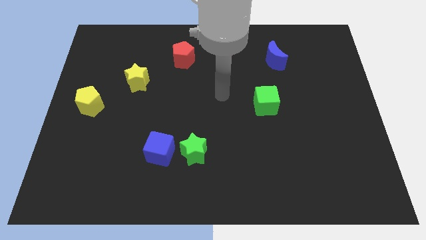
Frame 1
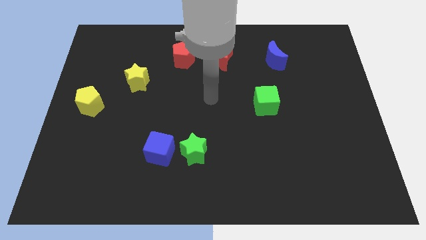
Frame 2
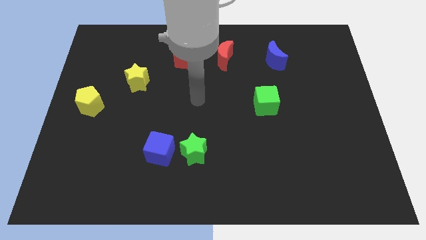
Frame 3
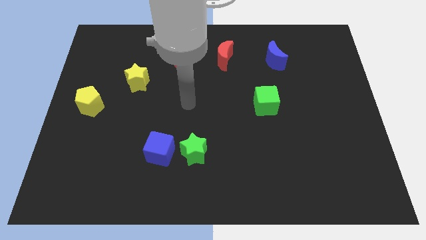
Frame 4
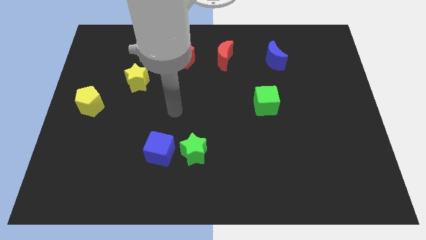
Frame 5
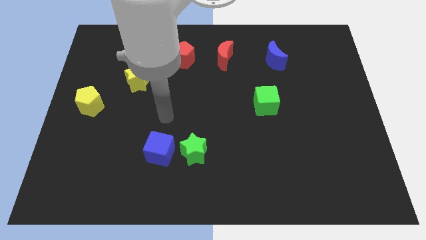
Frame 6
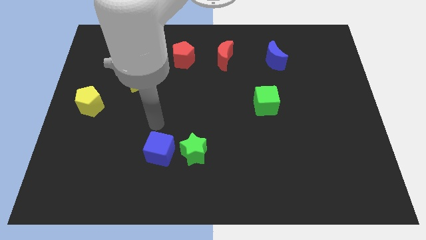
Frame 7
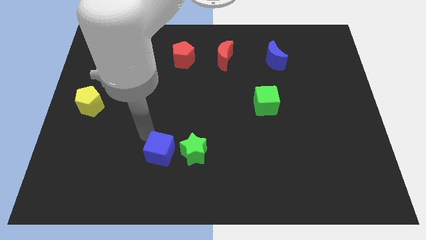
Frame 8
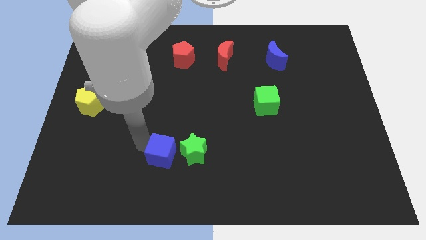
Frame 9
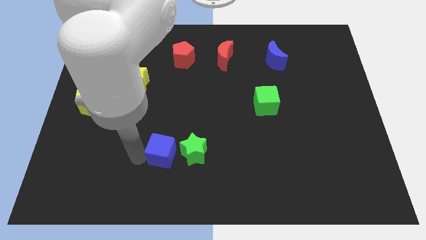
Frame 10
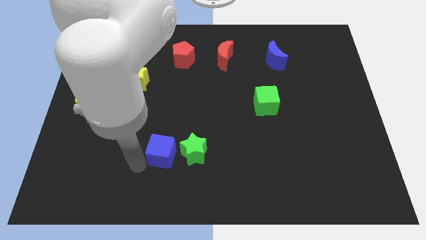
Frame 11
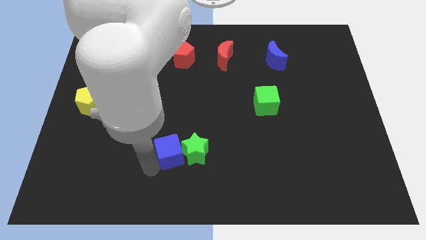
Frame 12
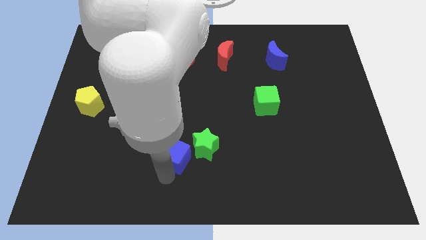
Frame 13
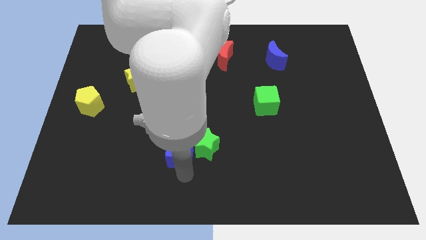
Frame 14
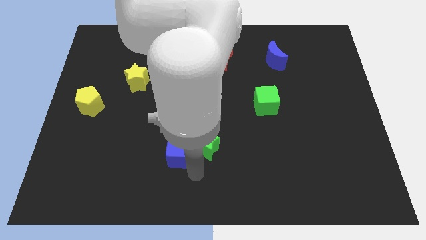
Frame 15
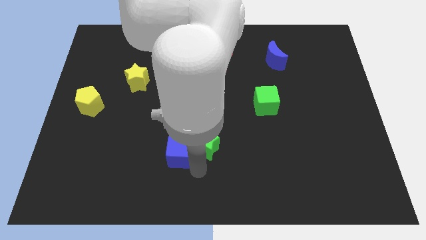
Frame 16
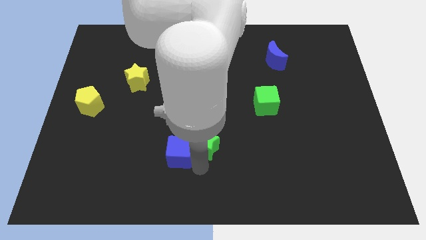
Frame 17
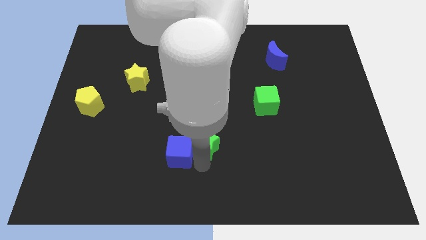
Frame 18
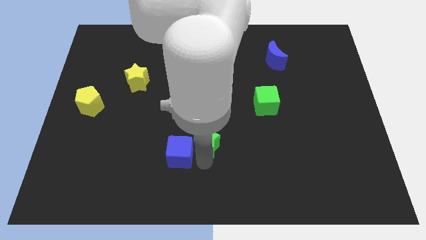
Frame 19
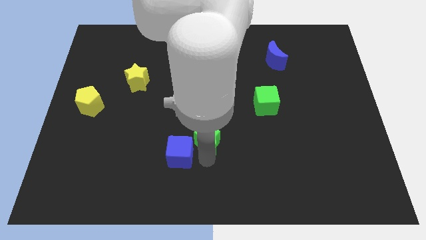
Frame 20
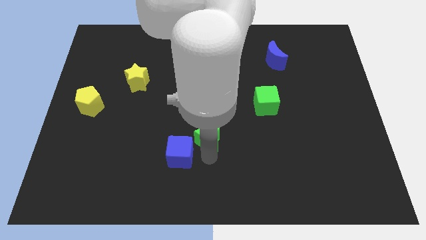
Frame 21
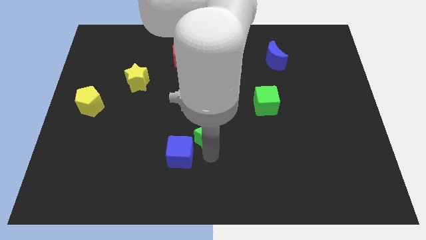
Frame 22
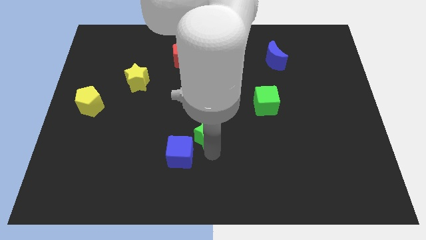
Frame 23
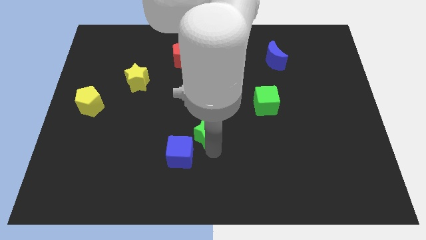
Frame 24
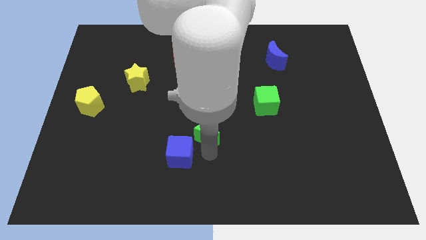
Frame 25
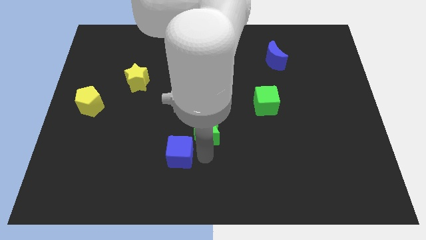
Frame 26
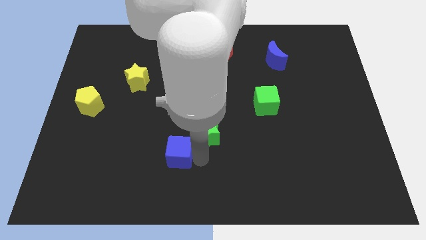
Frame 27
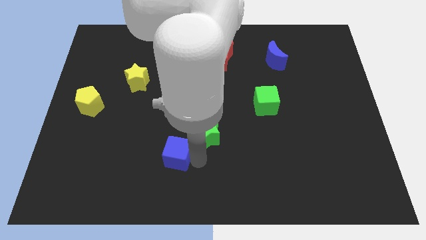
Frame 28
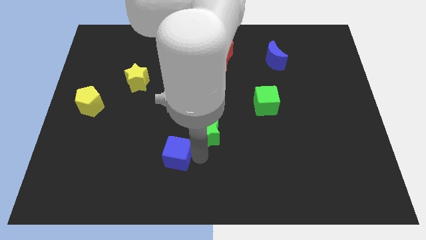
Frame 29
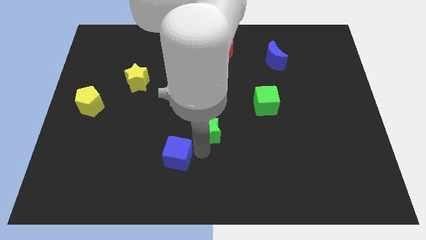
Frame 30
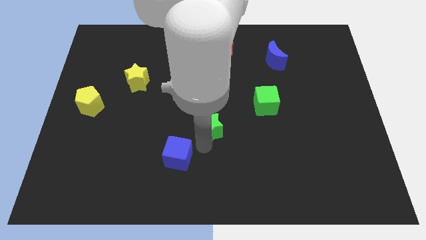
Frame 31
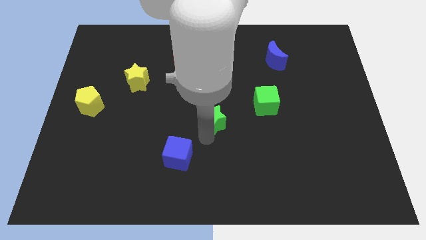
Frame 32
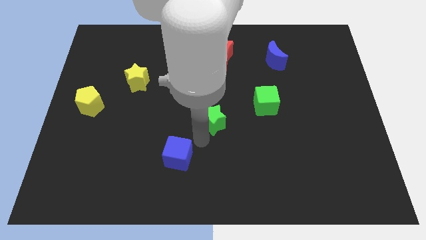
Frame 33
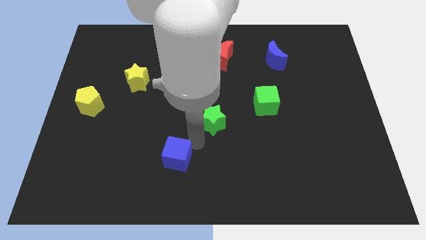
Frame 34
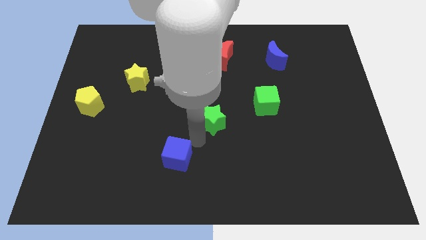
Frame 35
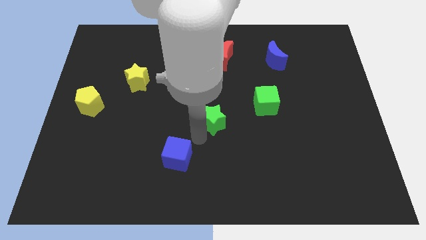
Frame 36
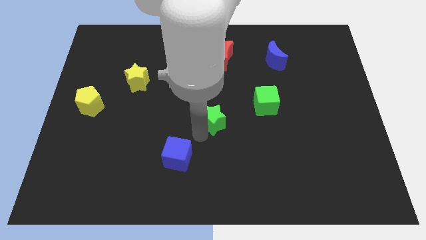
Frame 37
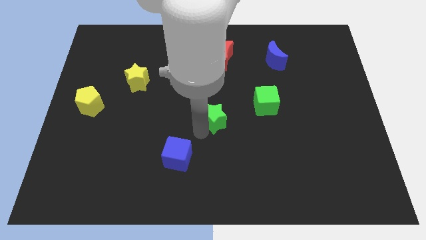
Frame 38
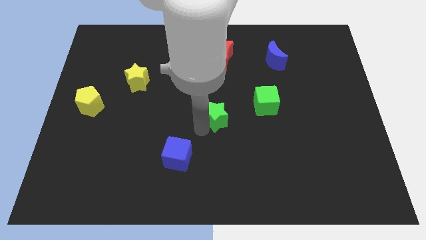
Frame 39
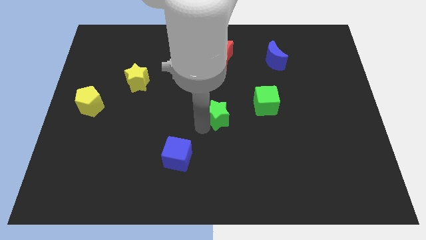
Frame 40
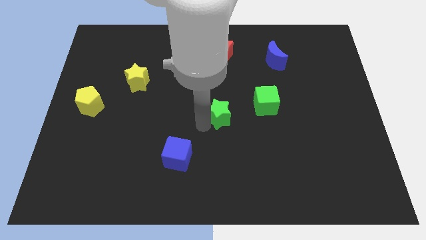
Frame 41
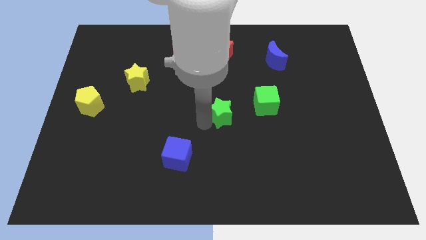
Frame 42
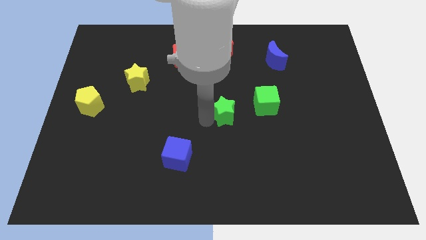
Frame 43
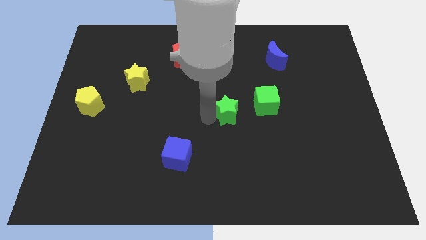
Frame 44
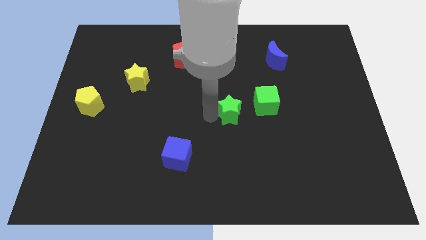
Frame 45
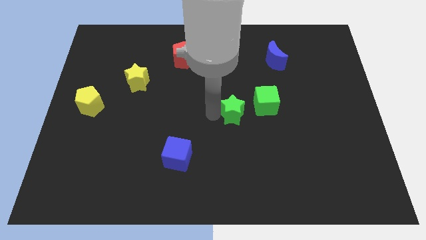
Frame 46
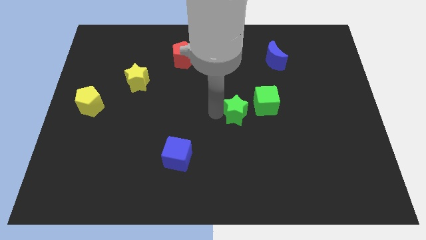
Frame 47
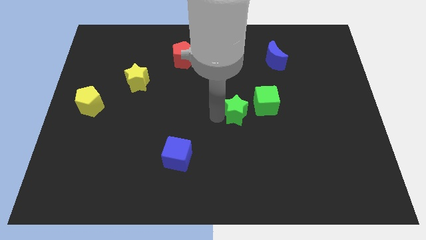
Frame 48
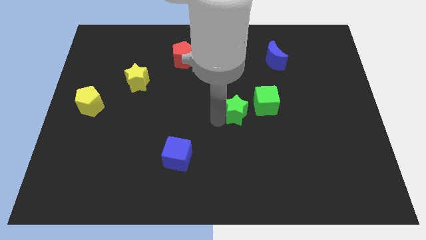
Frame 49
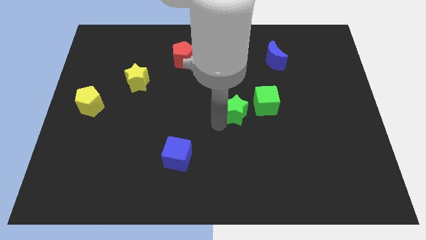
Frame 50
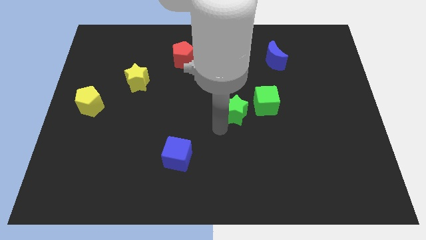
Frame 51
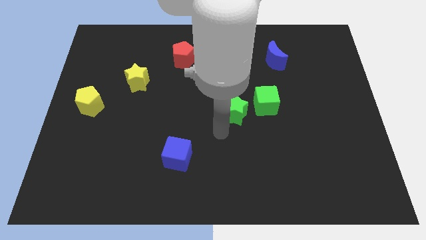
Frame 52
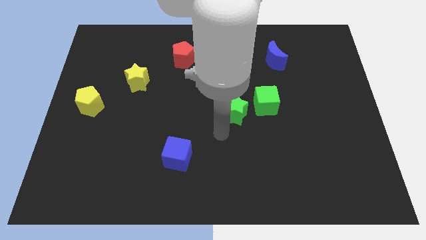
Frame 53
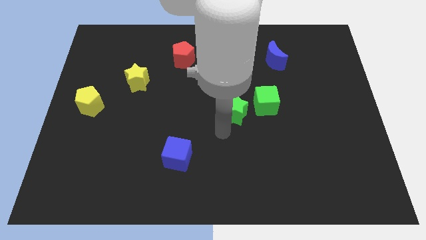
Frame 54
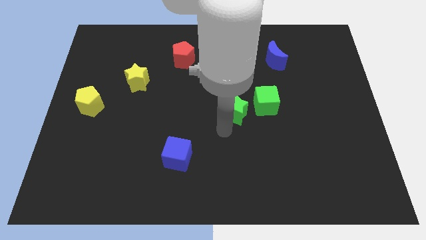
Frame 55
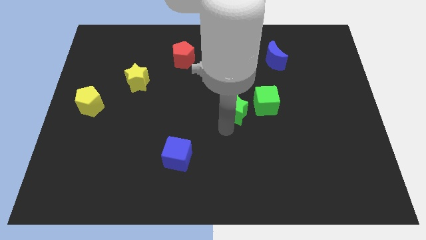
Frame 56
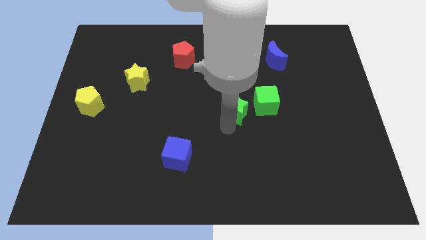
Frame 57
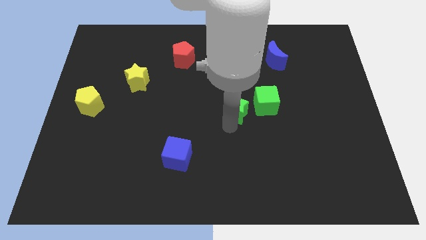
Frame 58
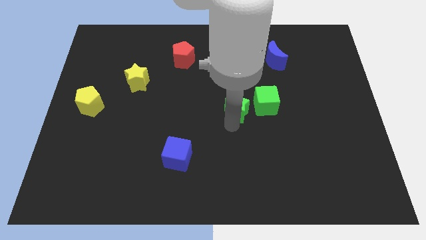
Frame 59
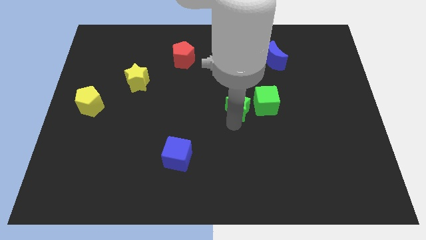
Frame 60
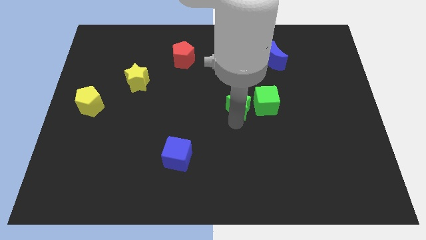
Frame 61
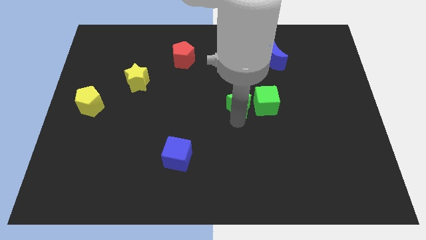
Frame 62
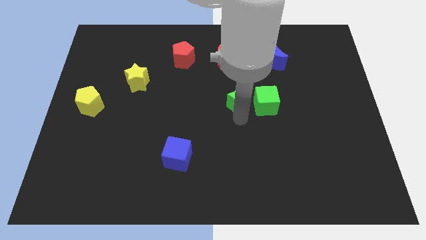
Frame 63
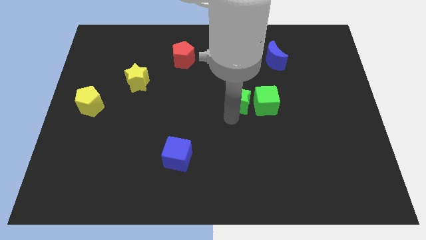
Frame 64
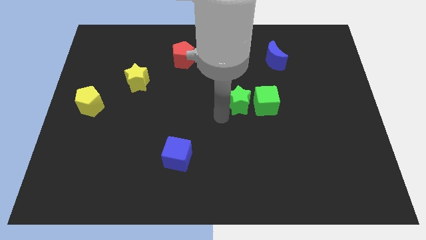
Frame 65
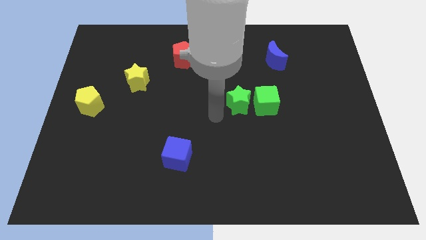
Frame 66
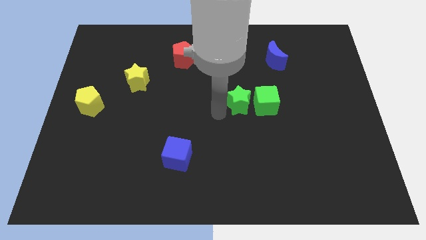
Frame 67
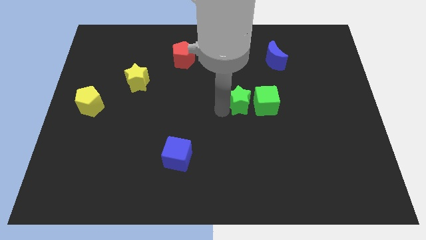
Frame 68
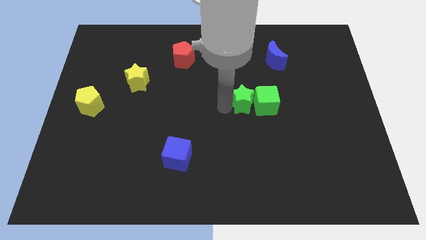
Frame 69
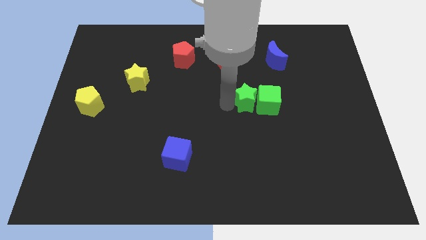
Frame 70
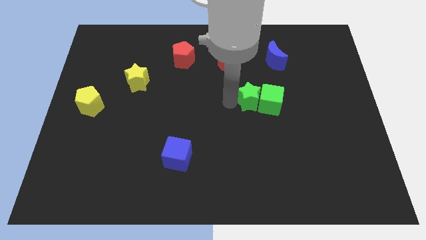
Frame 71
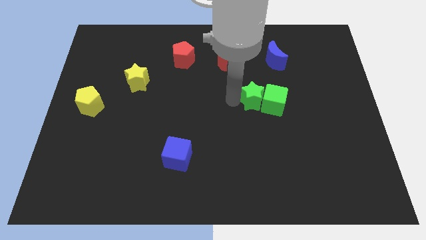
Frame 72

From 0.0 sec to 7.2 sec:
slide the green star upwards and to the right

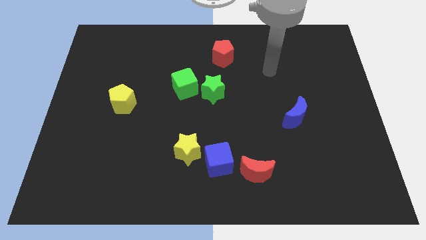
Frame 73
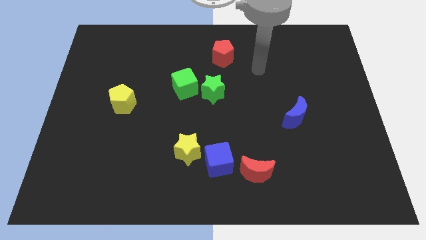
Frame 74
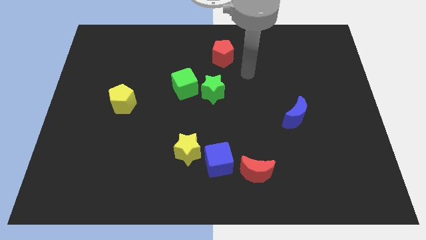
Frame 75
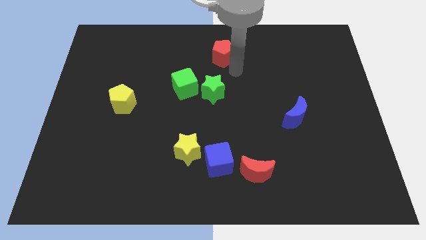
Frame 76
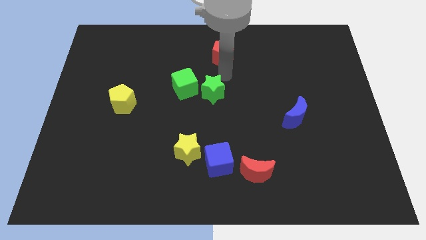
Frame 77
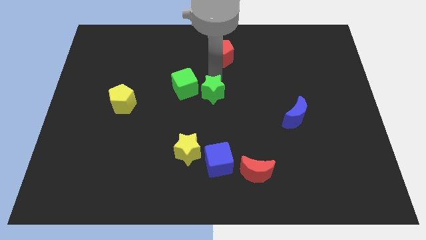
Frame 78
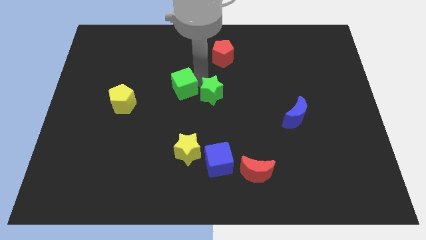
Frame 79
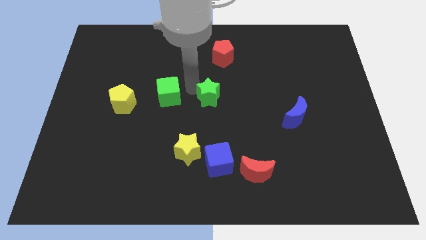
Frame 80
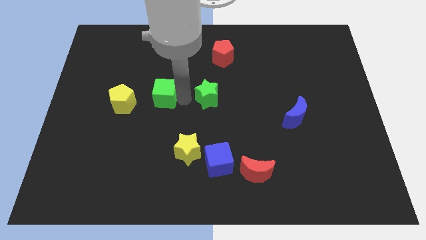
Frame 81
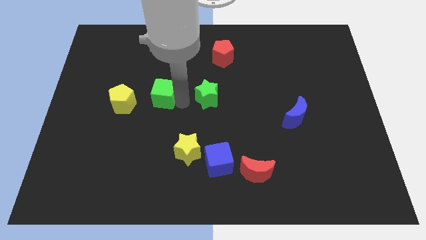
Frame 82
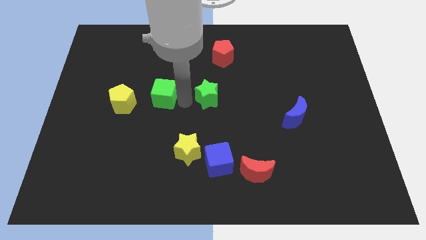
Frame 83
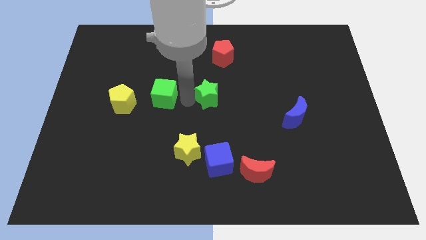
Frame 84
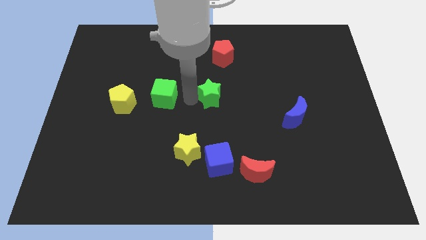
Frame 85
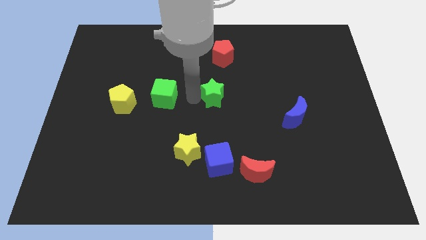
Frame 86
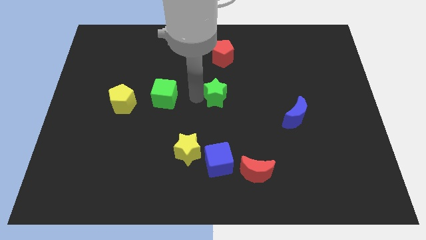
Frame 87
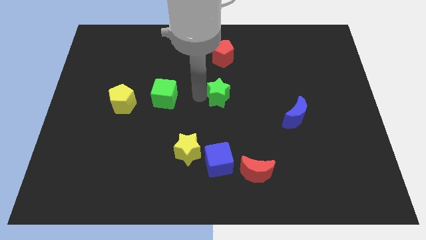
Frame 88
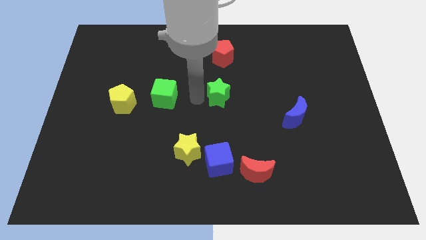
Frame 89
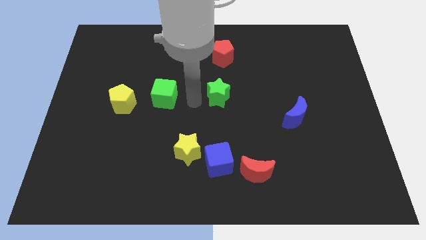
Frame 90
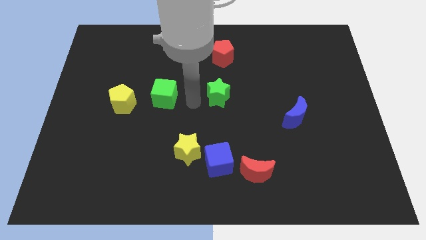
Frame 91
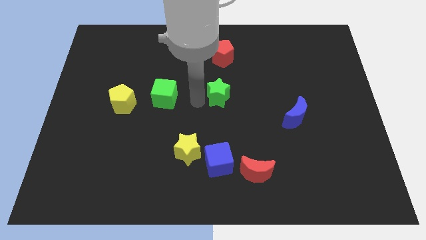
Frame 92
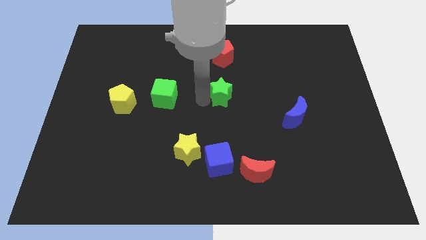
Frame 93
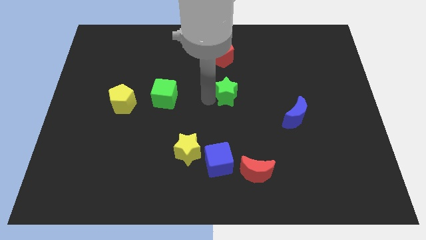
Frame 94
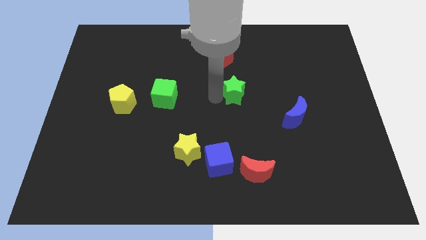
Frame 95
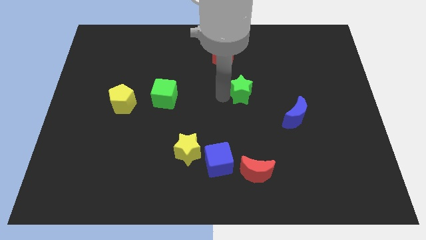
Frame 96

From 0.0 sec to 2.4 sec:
move the green star to the right slightly
